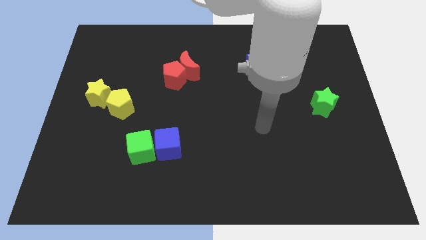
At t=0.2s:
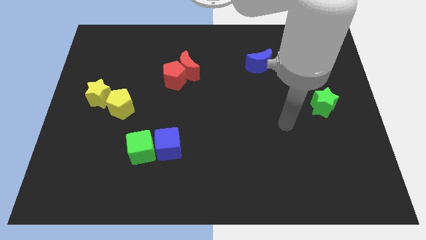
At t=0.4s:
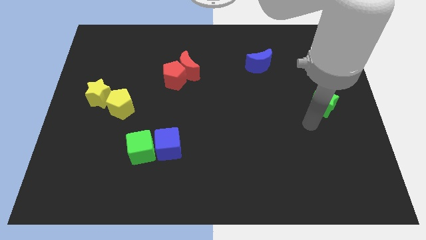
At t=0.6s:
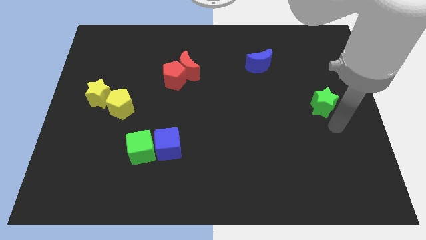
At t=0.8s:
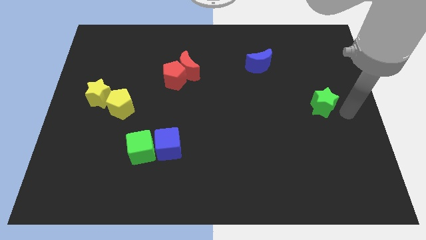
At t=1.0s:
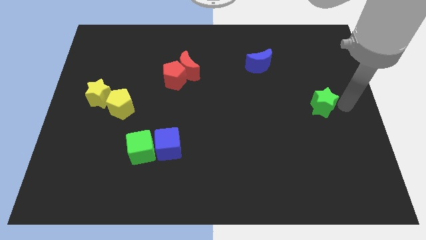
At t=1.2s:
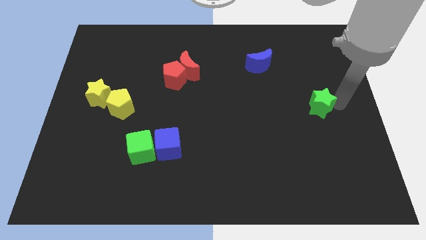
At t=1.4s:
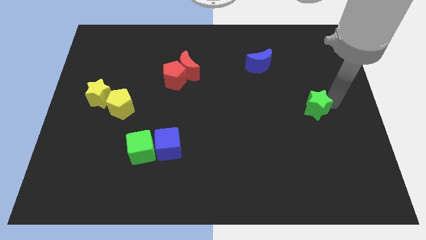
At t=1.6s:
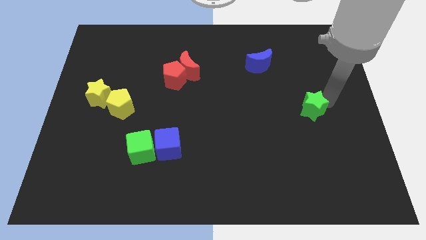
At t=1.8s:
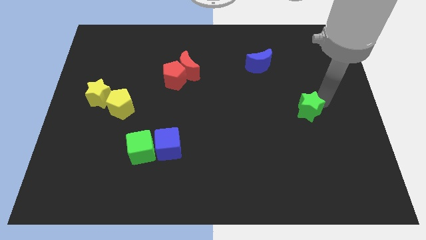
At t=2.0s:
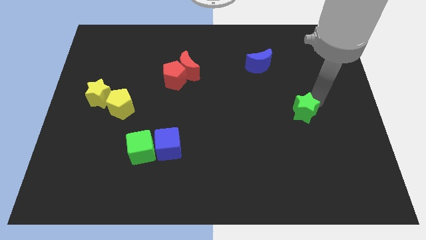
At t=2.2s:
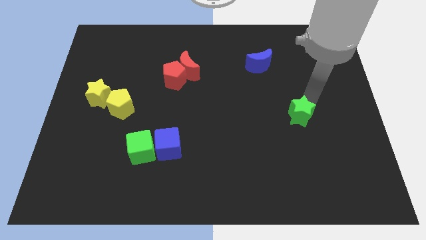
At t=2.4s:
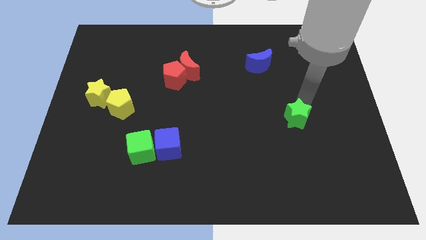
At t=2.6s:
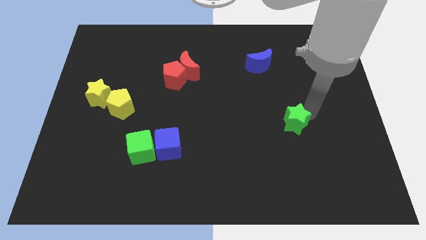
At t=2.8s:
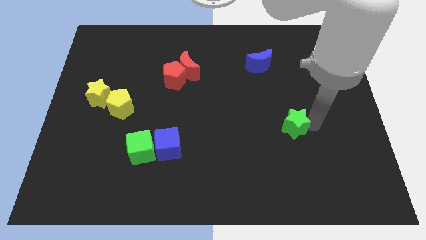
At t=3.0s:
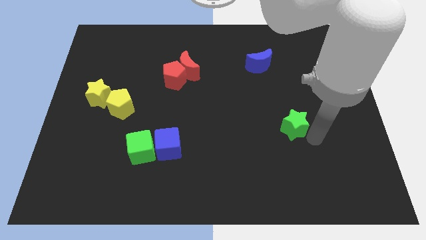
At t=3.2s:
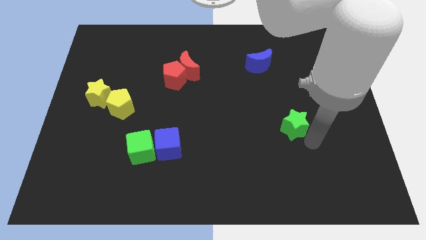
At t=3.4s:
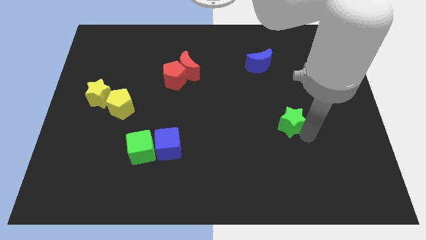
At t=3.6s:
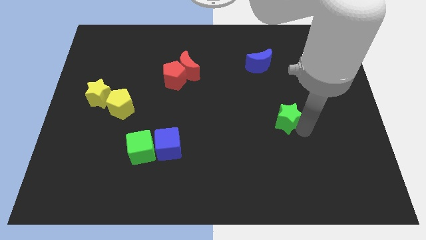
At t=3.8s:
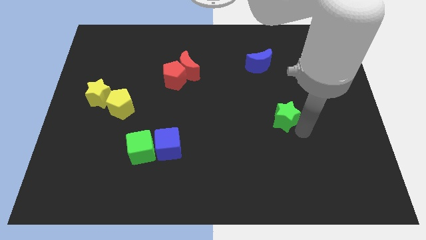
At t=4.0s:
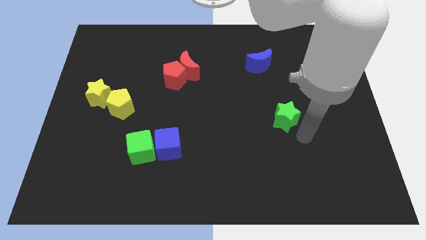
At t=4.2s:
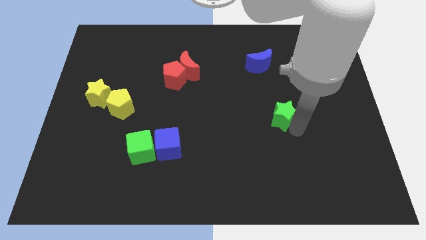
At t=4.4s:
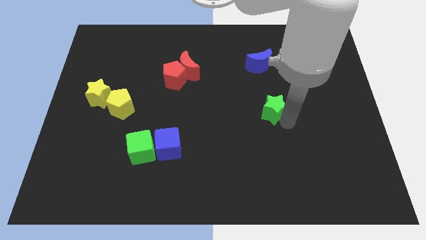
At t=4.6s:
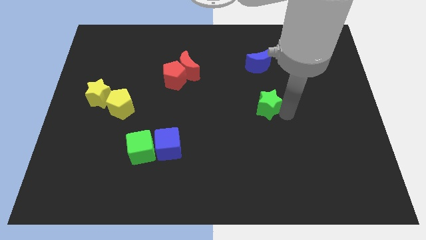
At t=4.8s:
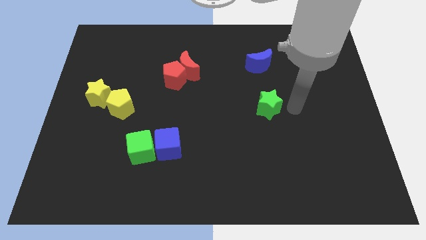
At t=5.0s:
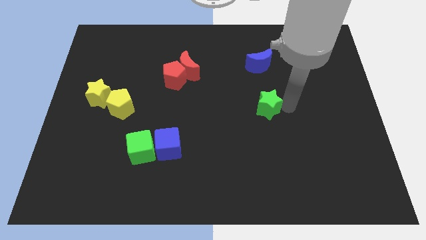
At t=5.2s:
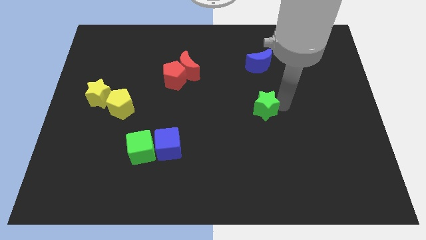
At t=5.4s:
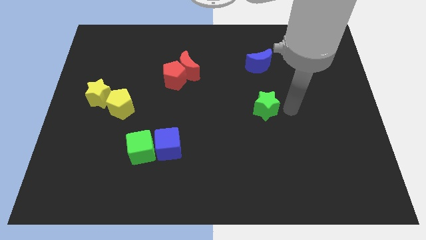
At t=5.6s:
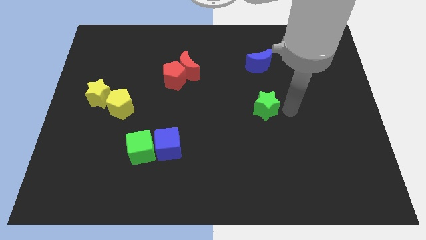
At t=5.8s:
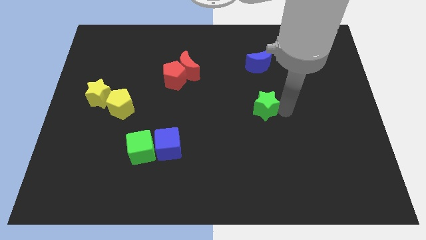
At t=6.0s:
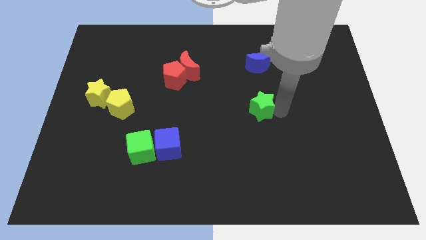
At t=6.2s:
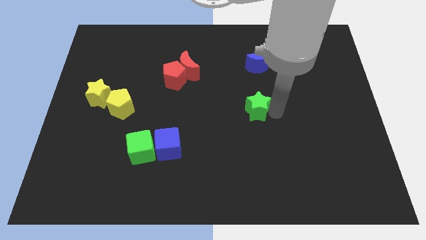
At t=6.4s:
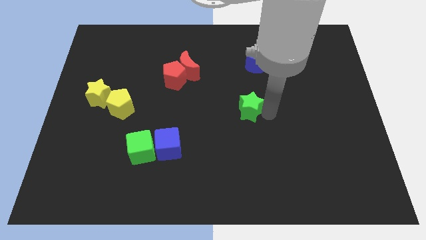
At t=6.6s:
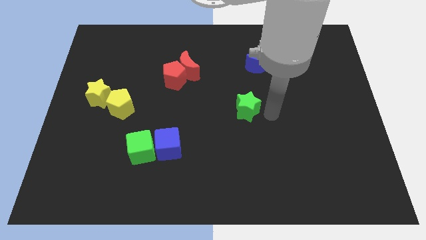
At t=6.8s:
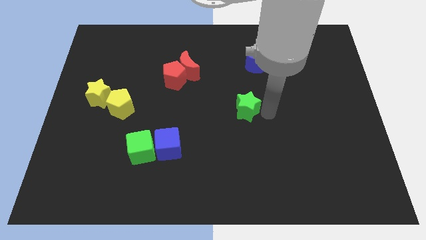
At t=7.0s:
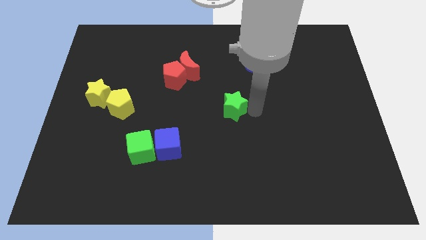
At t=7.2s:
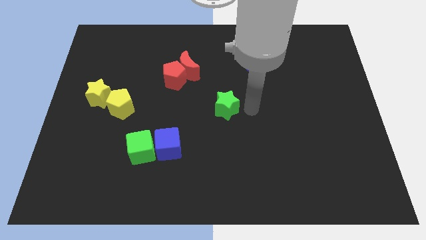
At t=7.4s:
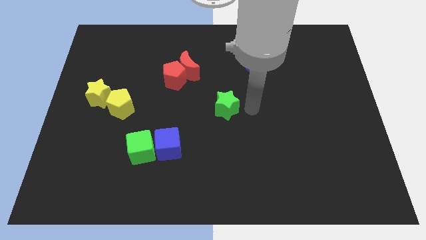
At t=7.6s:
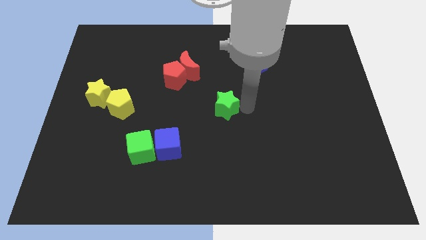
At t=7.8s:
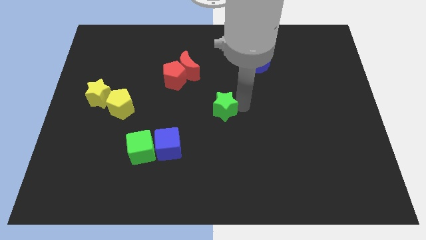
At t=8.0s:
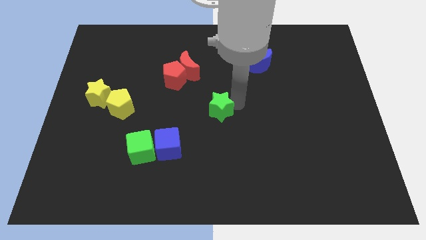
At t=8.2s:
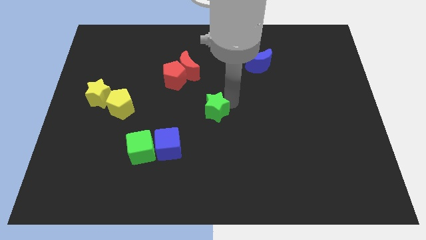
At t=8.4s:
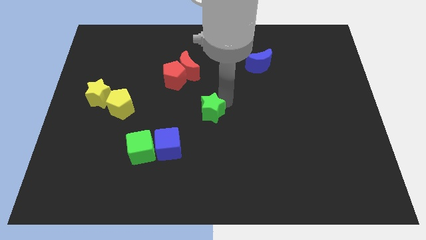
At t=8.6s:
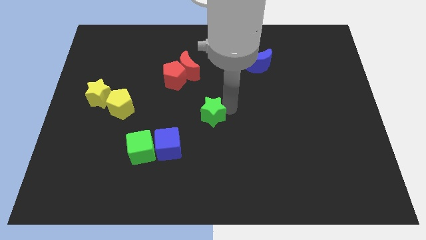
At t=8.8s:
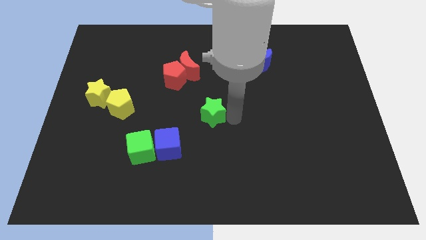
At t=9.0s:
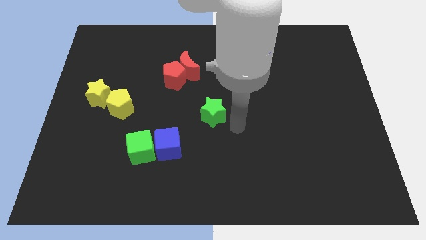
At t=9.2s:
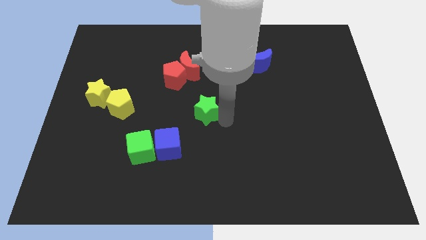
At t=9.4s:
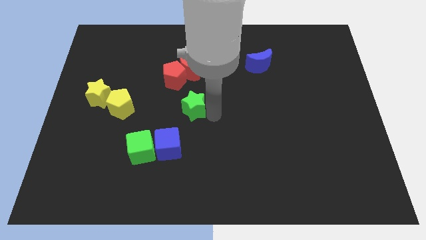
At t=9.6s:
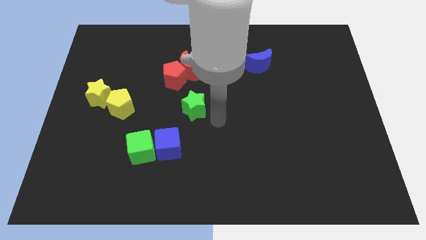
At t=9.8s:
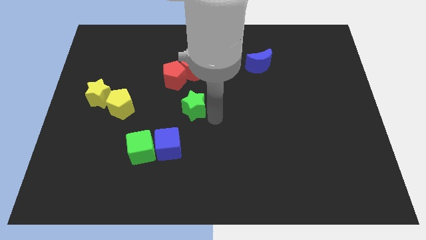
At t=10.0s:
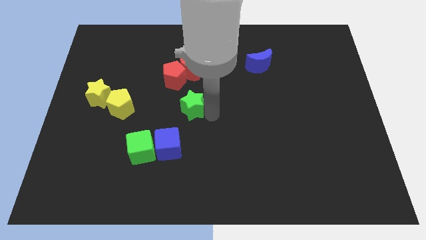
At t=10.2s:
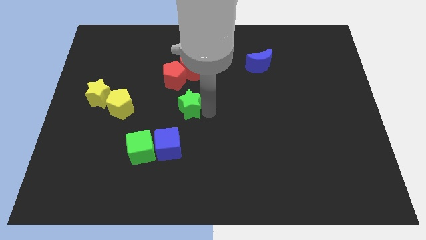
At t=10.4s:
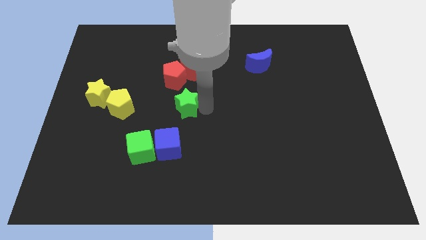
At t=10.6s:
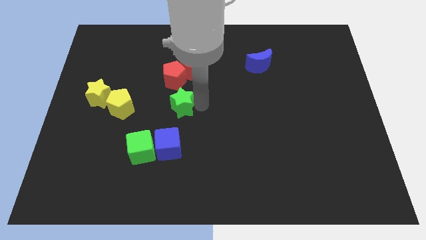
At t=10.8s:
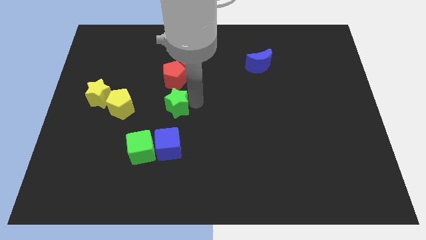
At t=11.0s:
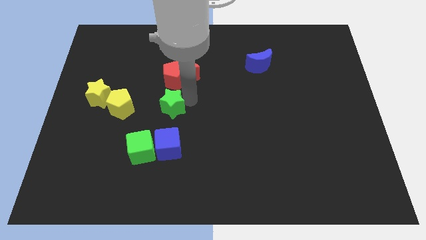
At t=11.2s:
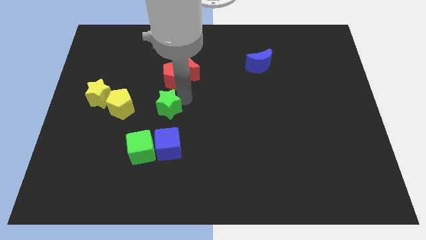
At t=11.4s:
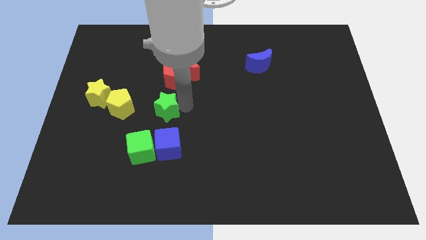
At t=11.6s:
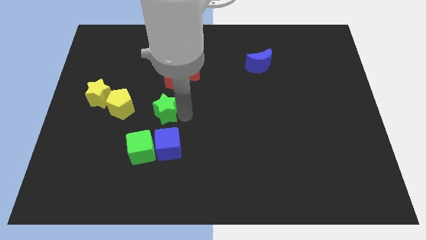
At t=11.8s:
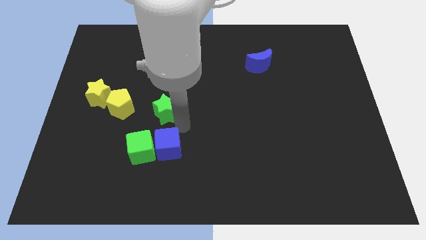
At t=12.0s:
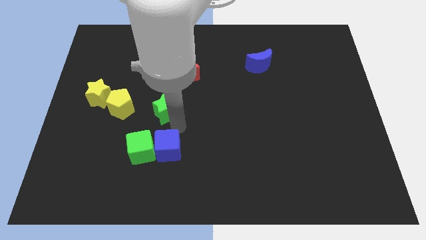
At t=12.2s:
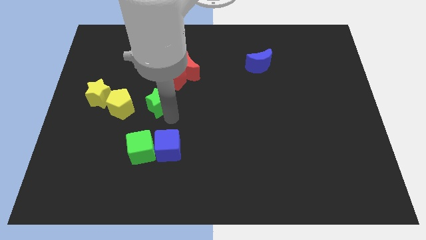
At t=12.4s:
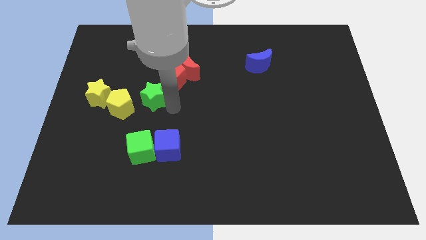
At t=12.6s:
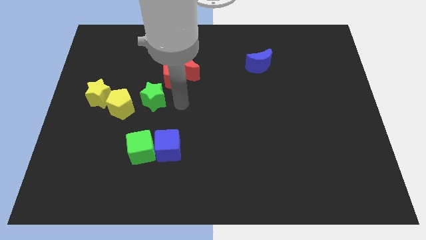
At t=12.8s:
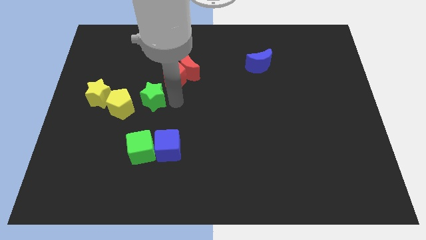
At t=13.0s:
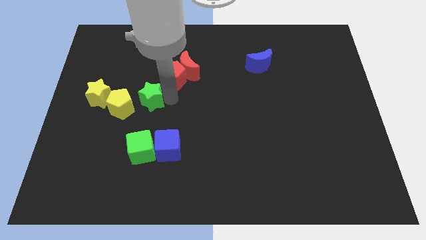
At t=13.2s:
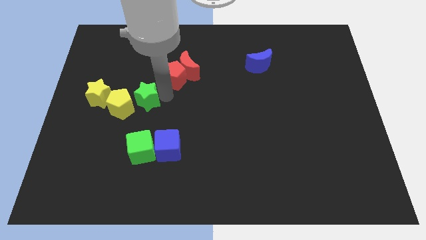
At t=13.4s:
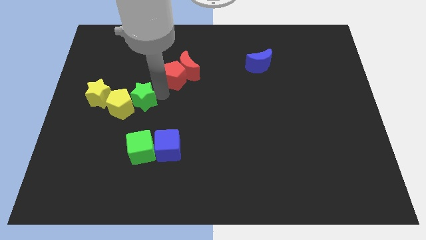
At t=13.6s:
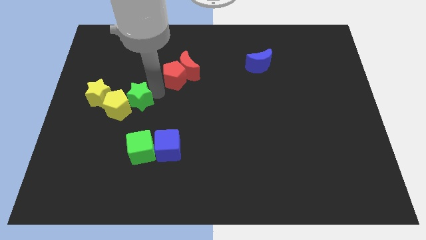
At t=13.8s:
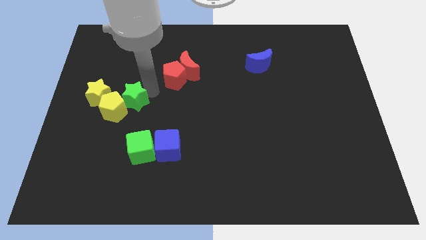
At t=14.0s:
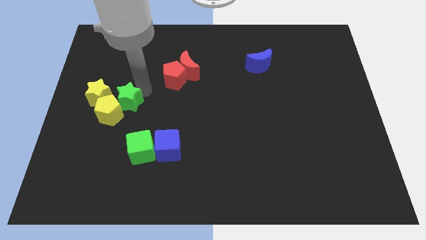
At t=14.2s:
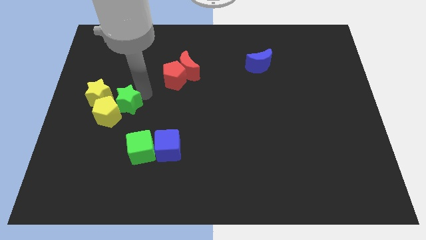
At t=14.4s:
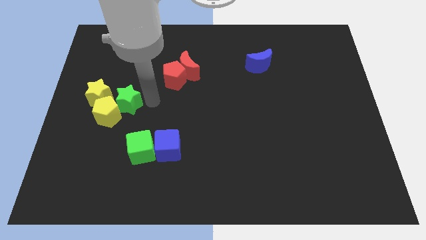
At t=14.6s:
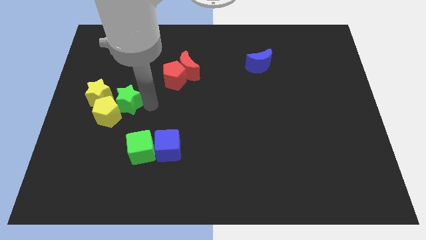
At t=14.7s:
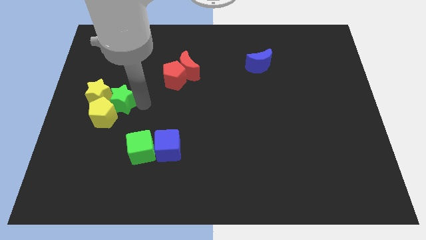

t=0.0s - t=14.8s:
move the green star towards the yellow star
